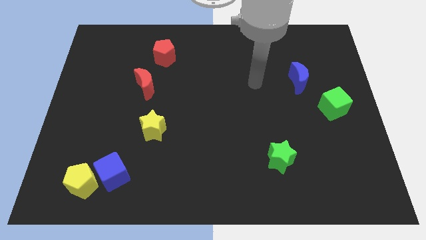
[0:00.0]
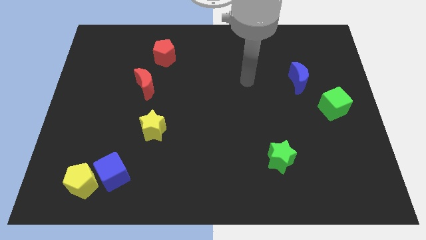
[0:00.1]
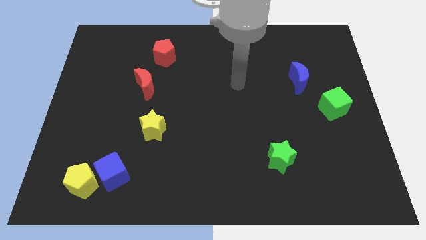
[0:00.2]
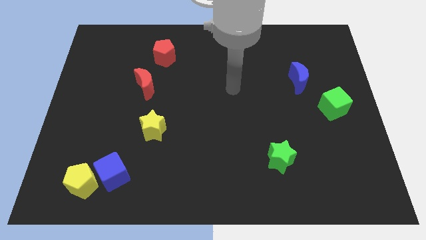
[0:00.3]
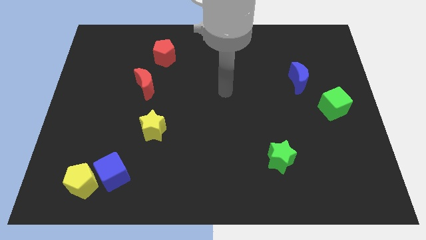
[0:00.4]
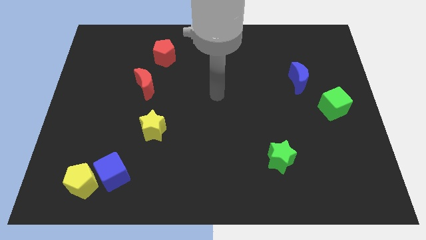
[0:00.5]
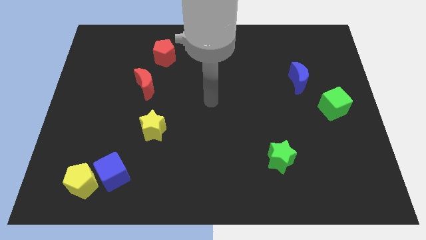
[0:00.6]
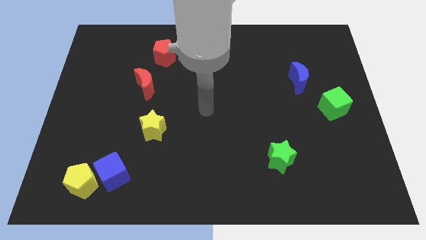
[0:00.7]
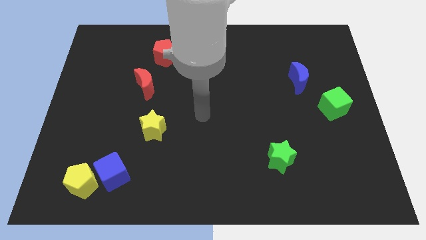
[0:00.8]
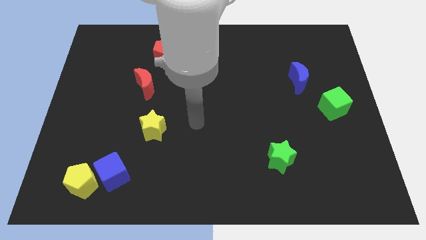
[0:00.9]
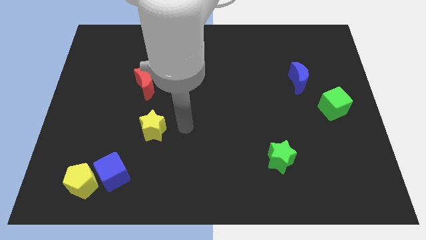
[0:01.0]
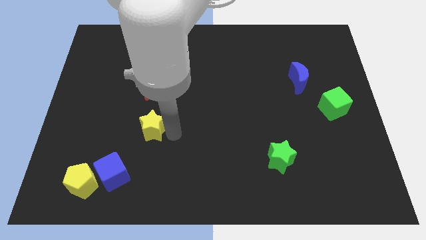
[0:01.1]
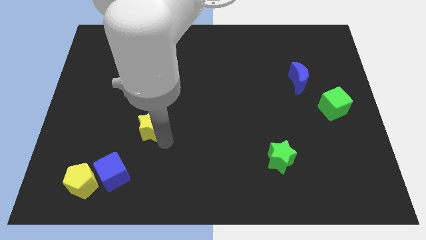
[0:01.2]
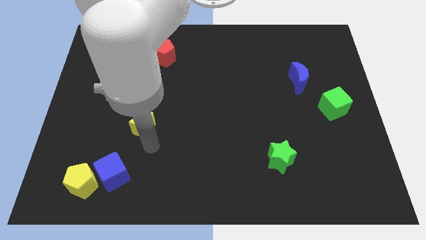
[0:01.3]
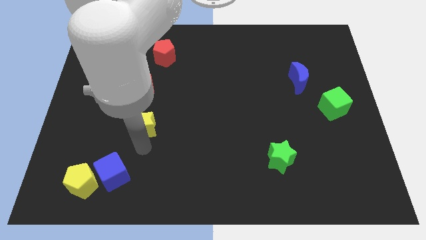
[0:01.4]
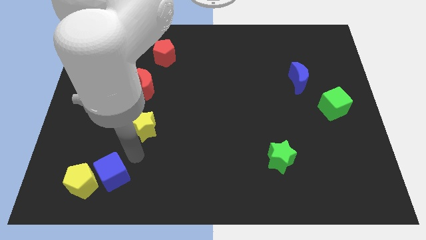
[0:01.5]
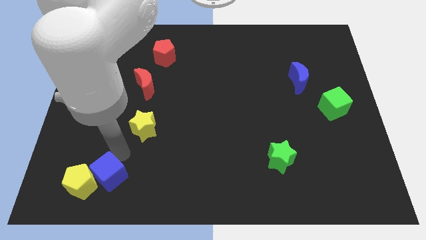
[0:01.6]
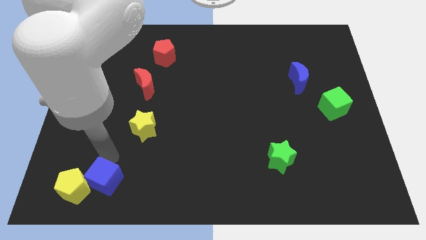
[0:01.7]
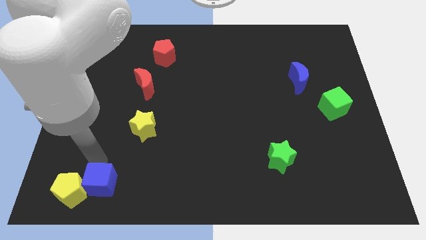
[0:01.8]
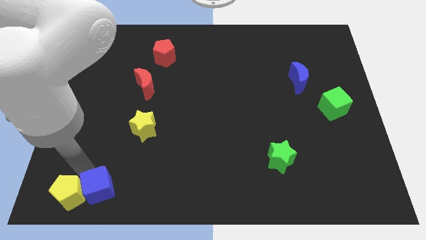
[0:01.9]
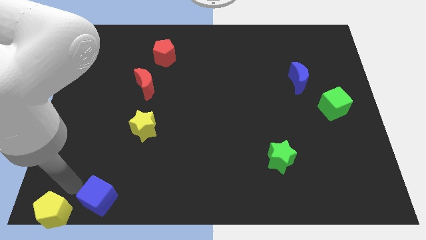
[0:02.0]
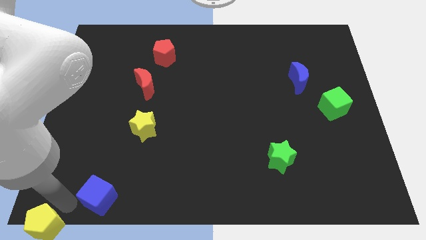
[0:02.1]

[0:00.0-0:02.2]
separate the blue cube from the yellow pentagon

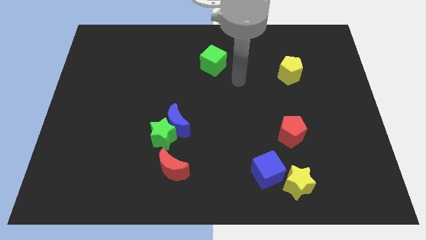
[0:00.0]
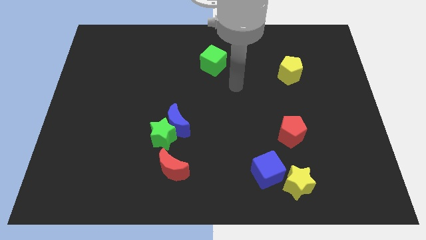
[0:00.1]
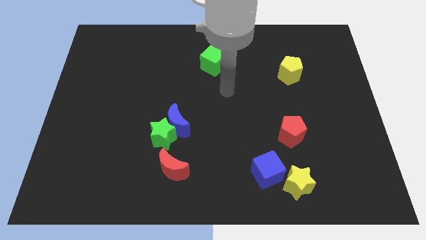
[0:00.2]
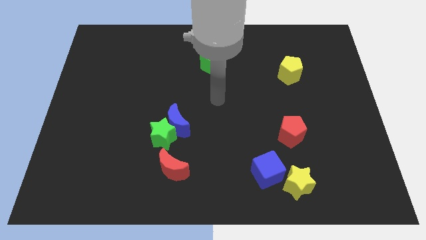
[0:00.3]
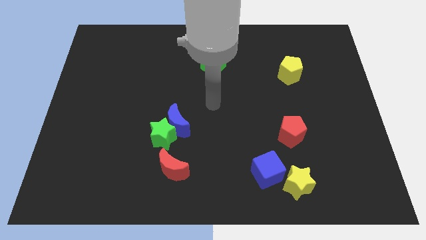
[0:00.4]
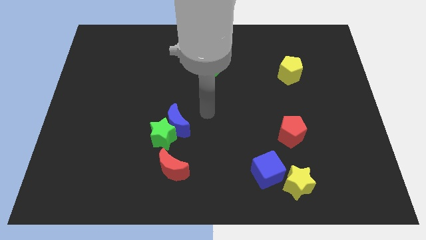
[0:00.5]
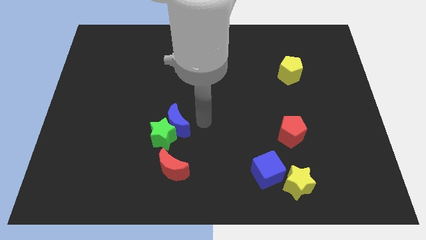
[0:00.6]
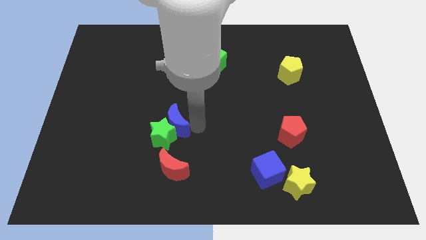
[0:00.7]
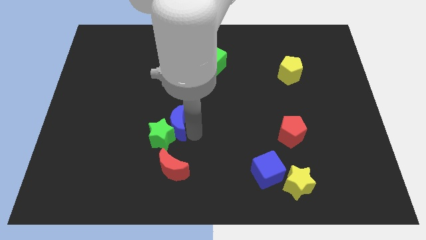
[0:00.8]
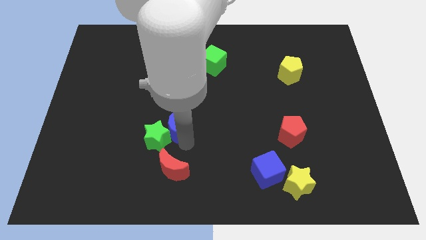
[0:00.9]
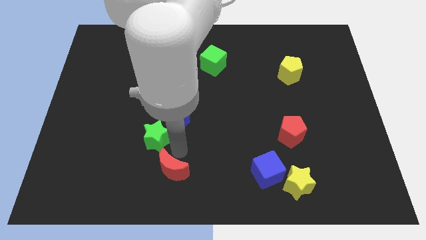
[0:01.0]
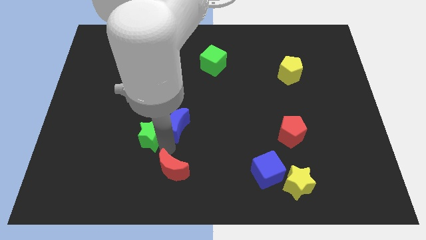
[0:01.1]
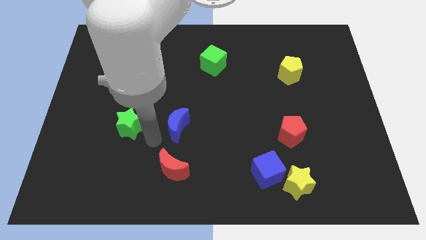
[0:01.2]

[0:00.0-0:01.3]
pull the blue moon apart from the green star

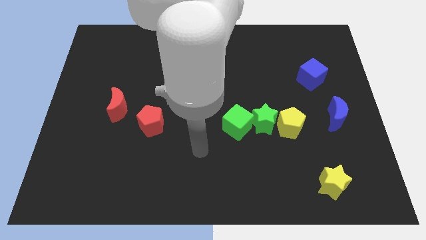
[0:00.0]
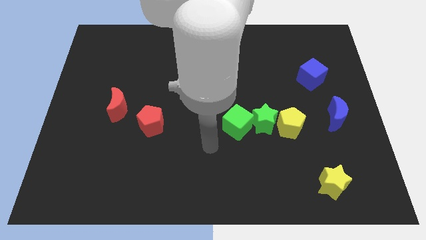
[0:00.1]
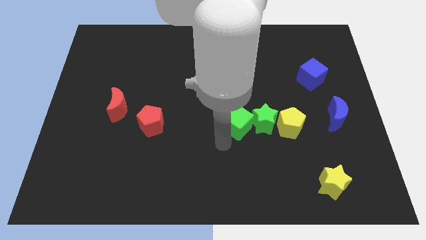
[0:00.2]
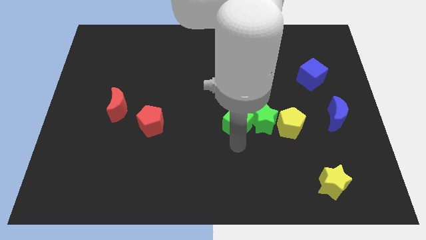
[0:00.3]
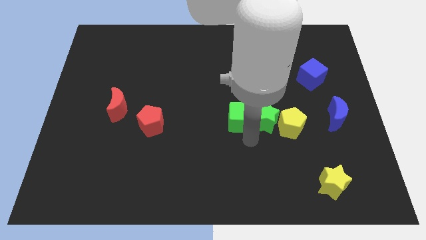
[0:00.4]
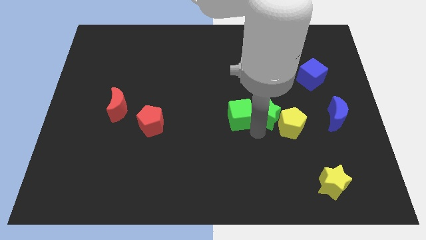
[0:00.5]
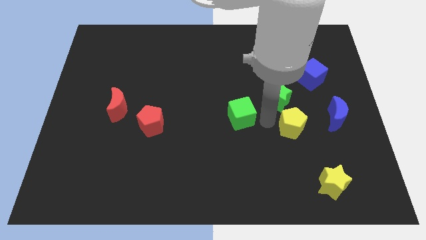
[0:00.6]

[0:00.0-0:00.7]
separate the green cube from the green star

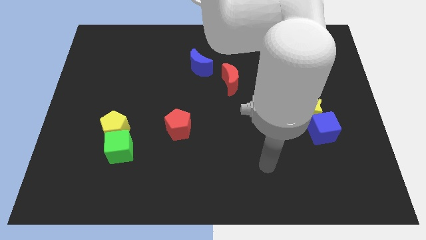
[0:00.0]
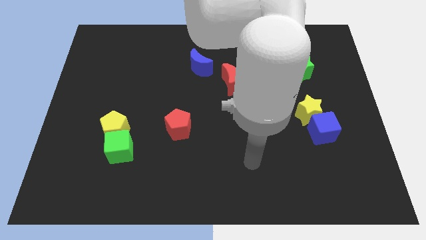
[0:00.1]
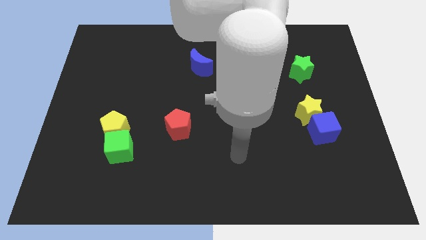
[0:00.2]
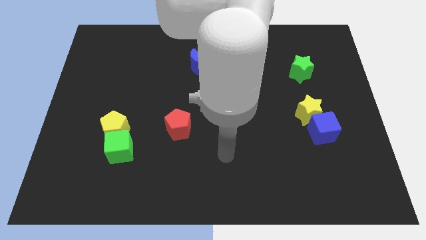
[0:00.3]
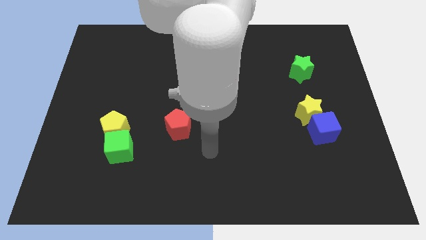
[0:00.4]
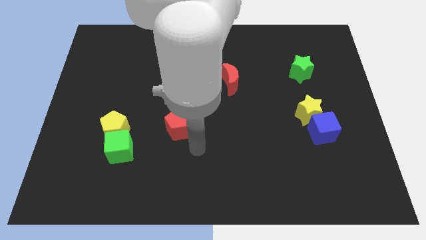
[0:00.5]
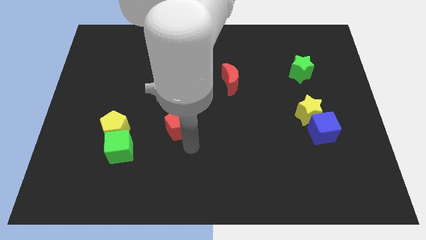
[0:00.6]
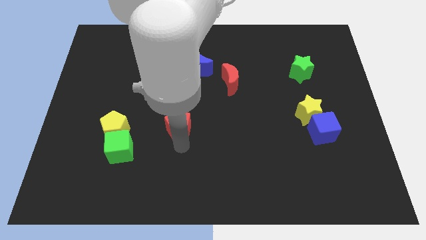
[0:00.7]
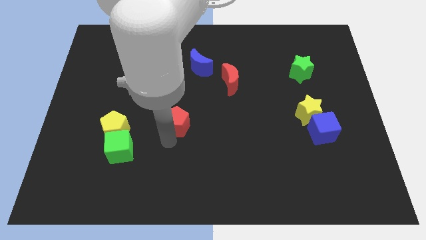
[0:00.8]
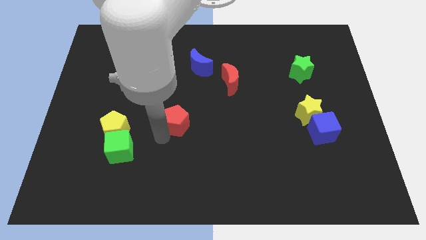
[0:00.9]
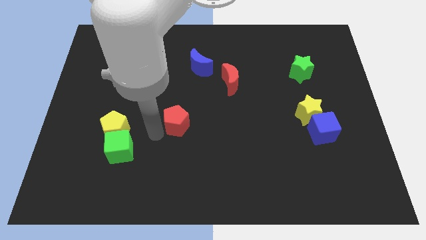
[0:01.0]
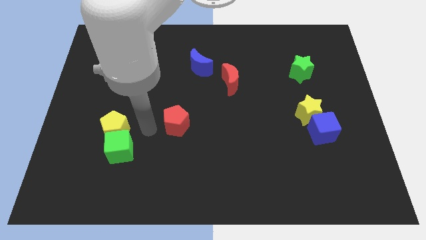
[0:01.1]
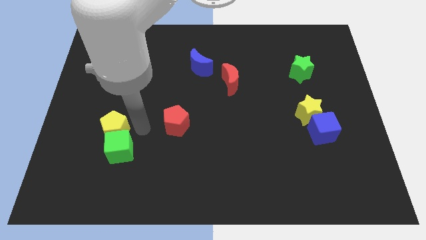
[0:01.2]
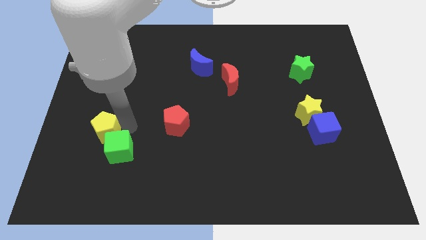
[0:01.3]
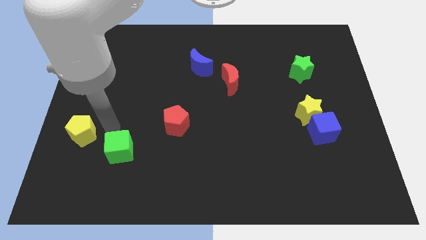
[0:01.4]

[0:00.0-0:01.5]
move the green cube away from the yellow pentagon

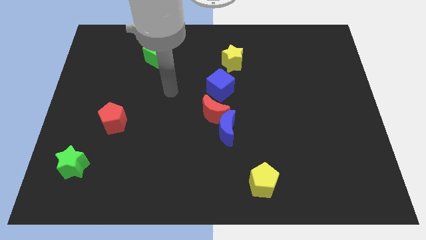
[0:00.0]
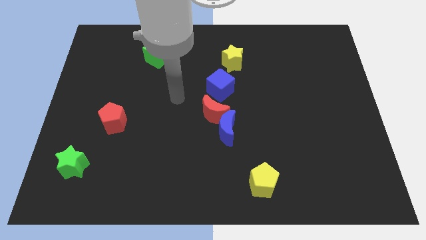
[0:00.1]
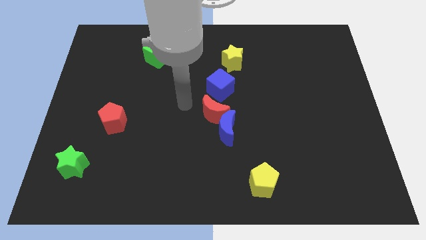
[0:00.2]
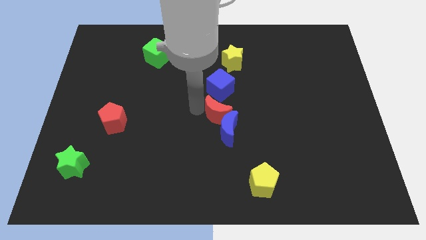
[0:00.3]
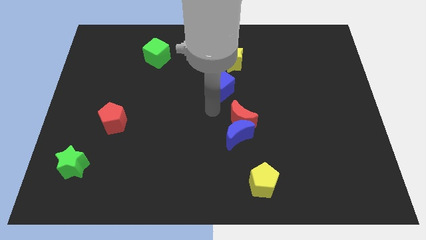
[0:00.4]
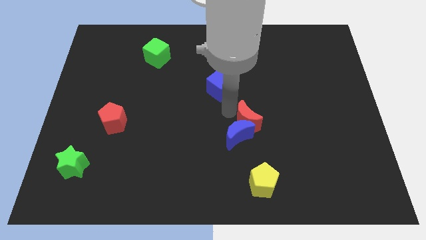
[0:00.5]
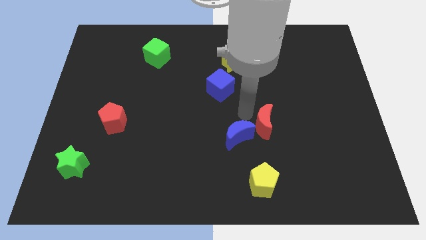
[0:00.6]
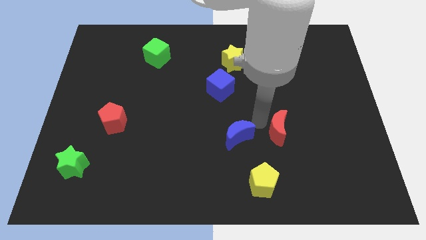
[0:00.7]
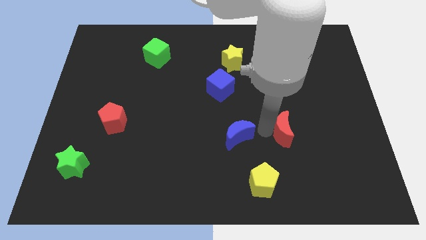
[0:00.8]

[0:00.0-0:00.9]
pull the blue moon apart from the red moon

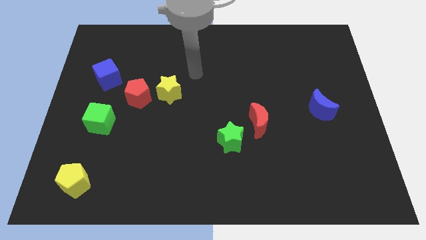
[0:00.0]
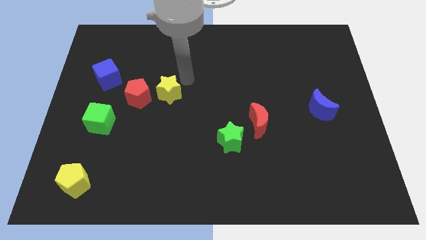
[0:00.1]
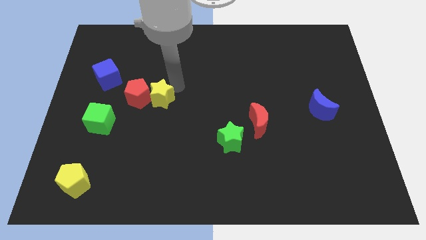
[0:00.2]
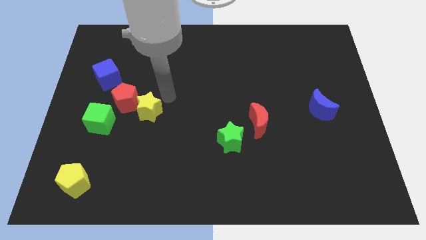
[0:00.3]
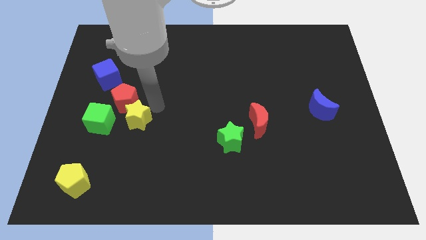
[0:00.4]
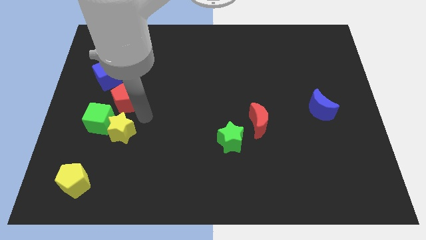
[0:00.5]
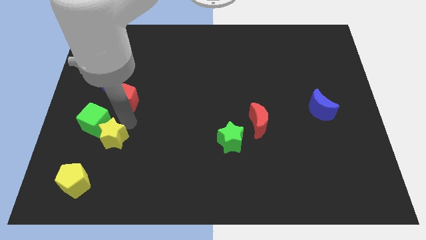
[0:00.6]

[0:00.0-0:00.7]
pull the red pentagon apart from the yellow star

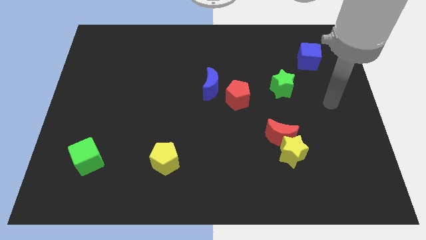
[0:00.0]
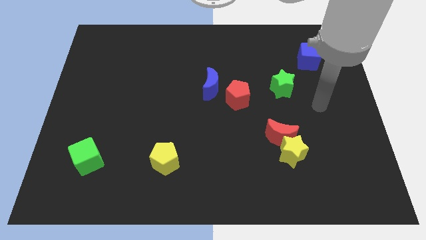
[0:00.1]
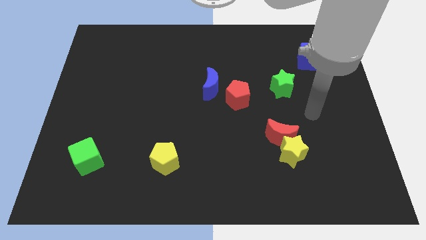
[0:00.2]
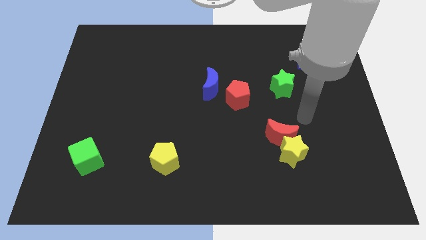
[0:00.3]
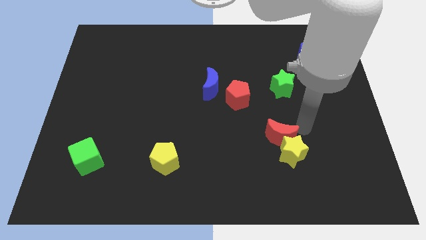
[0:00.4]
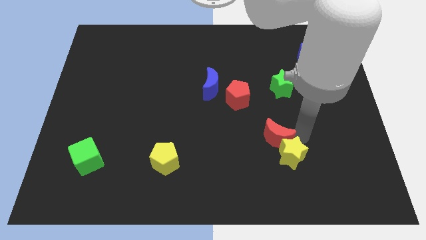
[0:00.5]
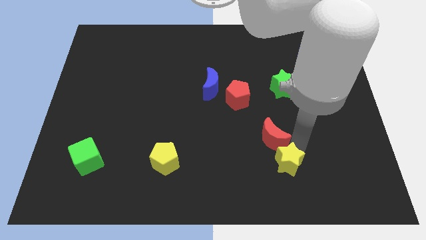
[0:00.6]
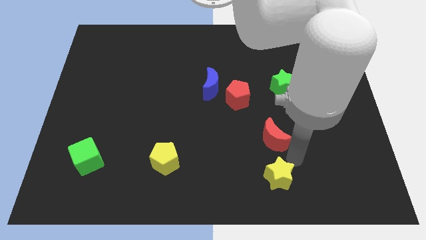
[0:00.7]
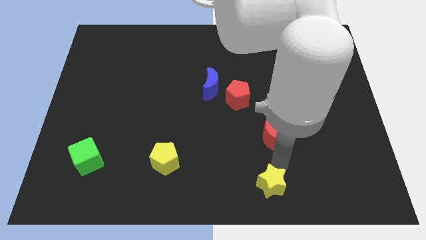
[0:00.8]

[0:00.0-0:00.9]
separate the red moon from the yellow star

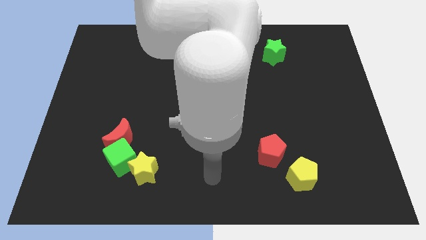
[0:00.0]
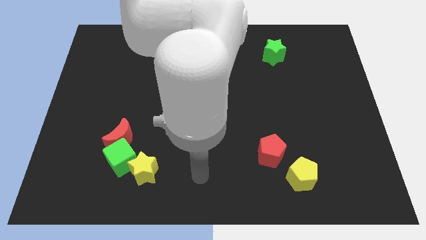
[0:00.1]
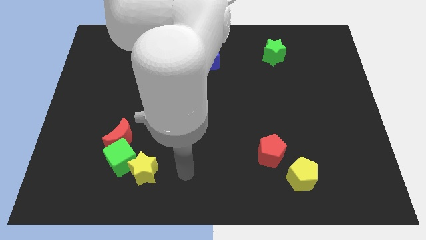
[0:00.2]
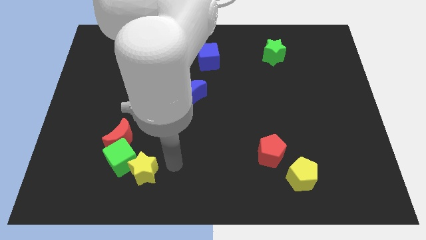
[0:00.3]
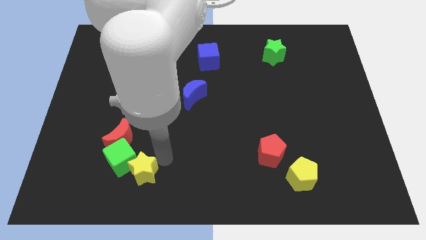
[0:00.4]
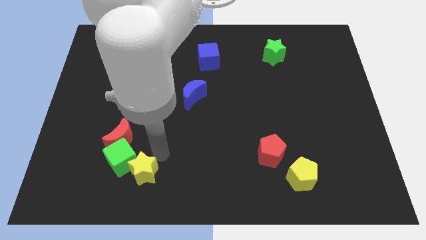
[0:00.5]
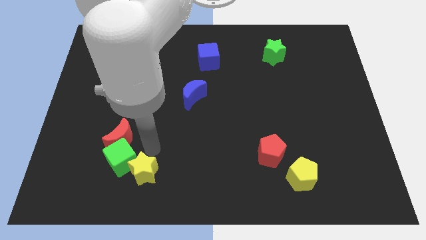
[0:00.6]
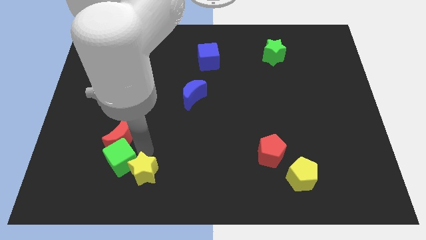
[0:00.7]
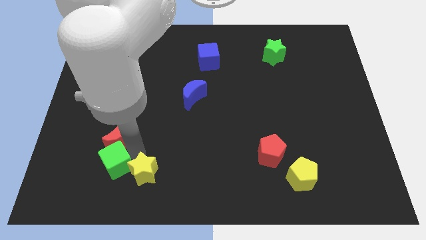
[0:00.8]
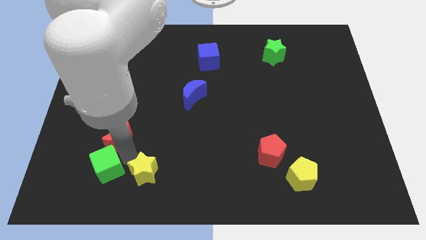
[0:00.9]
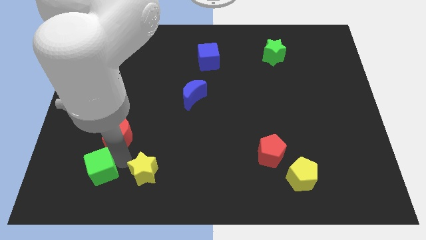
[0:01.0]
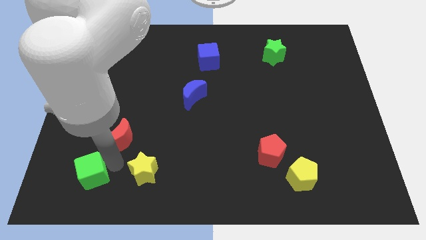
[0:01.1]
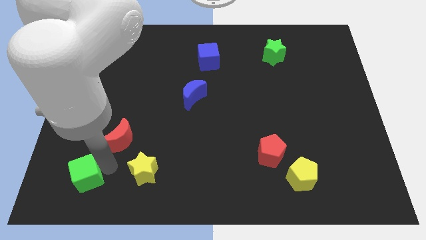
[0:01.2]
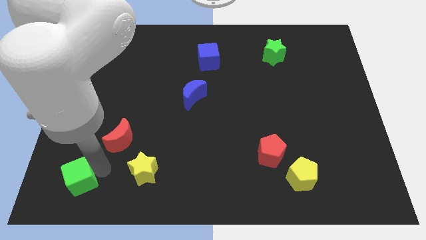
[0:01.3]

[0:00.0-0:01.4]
move the green cube away from the red moon and yellow star
